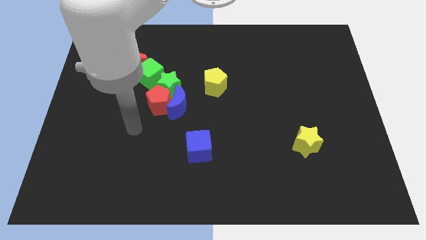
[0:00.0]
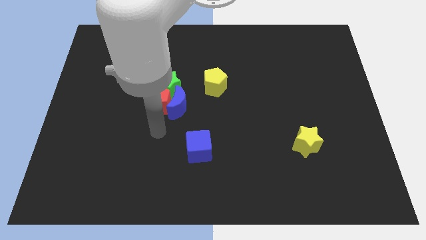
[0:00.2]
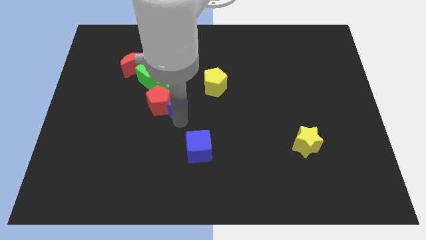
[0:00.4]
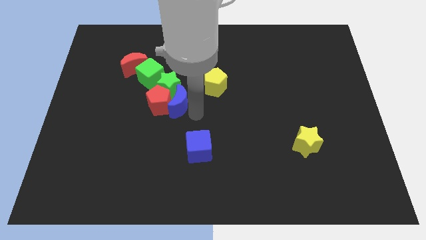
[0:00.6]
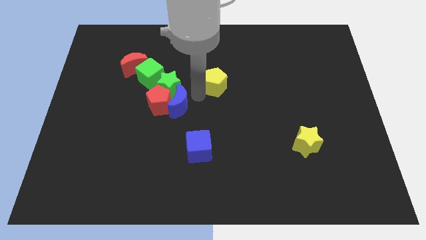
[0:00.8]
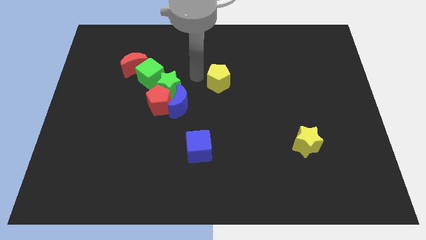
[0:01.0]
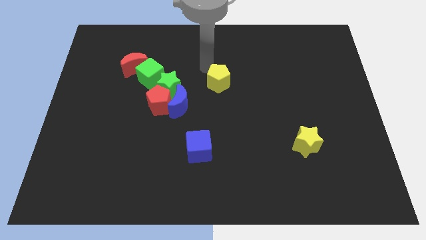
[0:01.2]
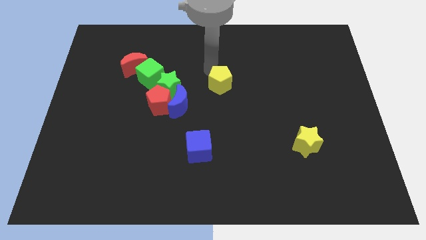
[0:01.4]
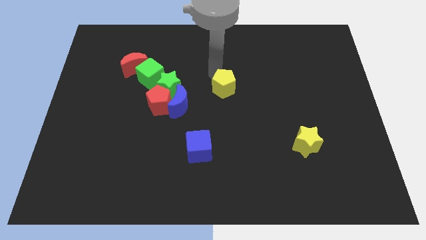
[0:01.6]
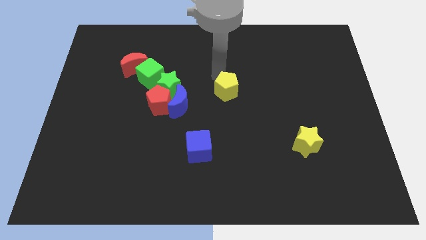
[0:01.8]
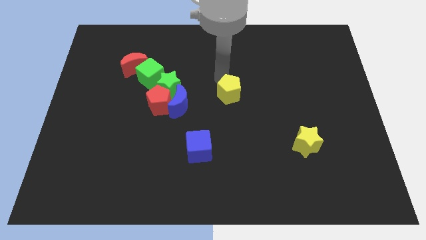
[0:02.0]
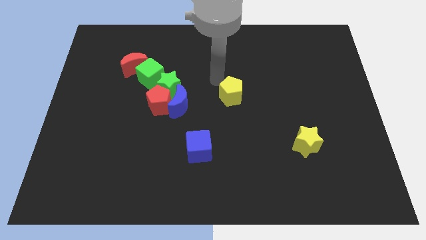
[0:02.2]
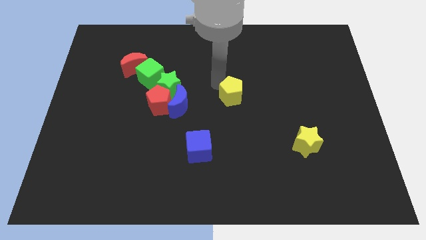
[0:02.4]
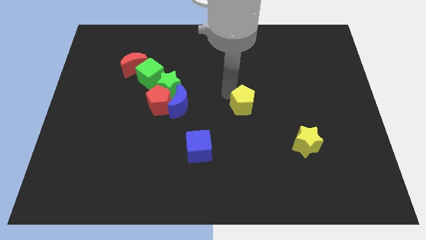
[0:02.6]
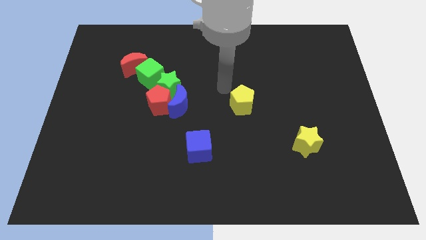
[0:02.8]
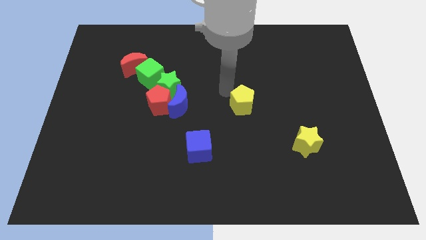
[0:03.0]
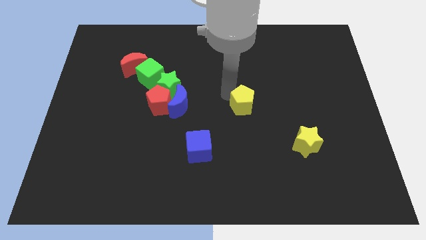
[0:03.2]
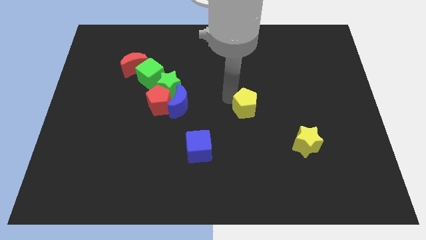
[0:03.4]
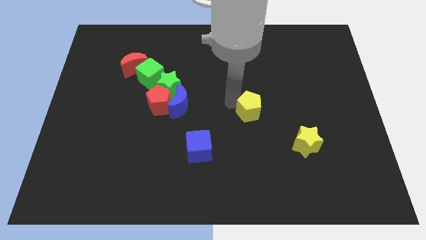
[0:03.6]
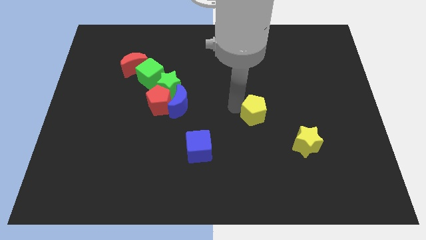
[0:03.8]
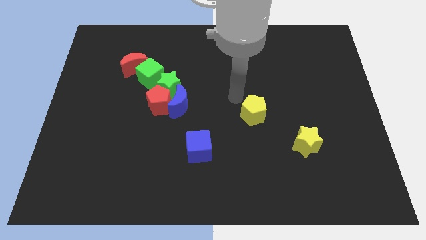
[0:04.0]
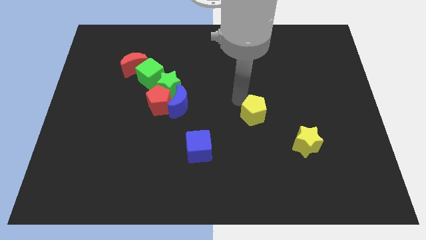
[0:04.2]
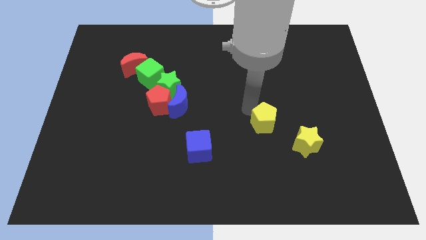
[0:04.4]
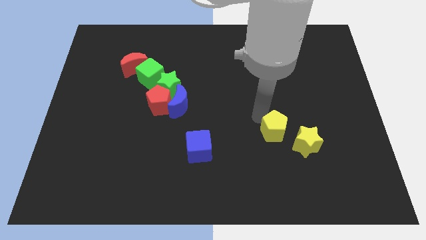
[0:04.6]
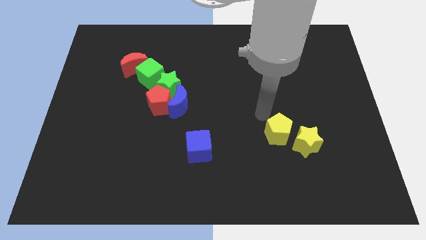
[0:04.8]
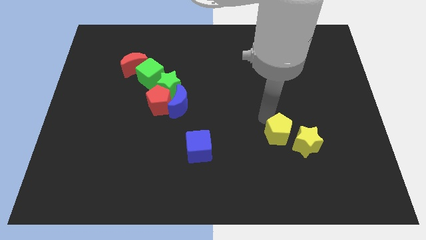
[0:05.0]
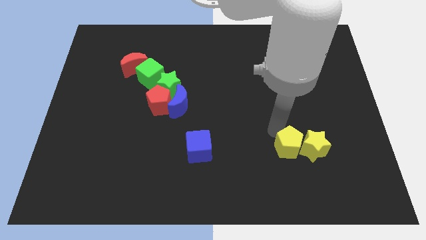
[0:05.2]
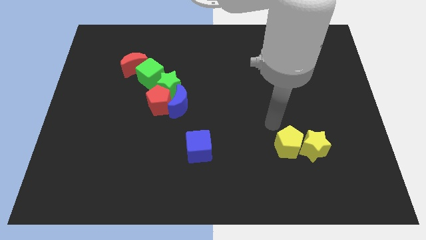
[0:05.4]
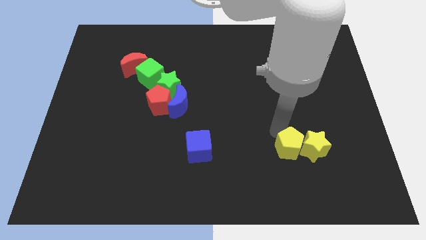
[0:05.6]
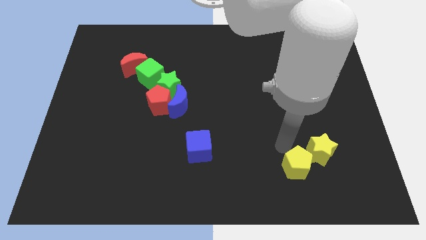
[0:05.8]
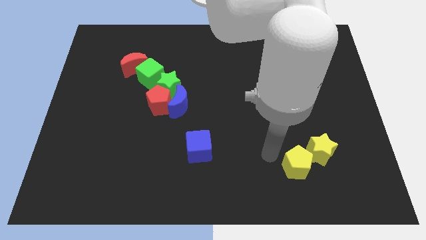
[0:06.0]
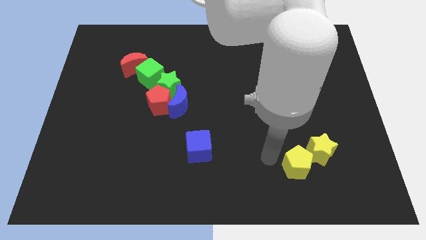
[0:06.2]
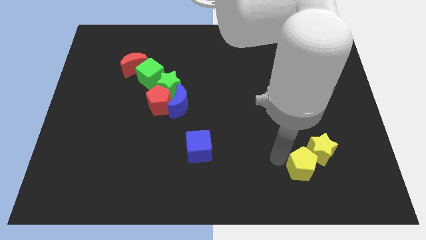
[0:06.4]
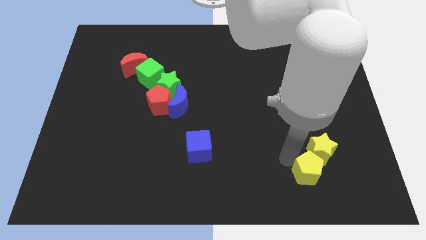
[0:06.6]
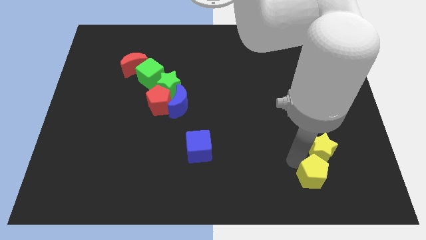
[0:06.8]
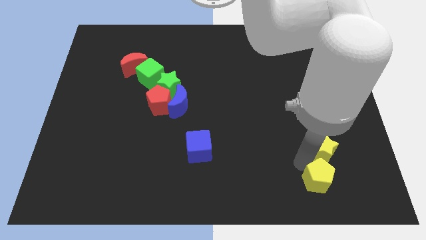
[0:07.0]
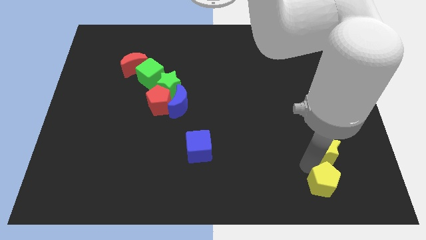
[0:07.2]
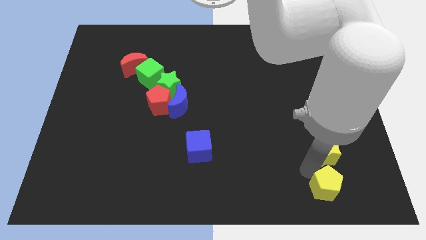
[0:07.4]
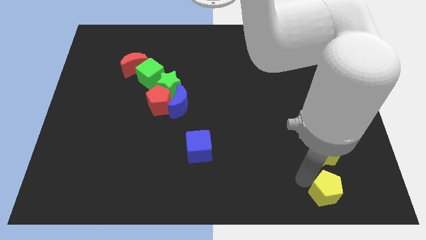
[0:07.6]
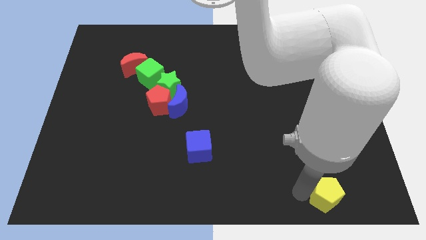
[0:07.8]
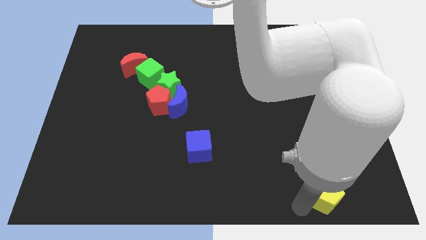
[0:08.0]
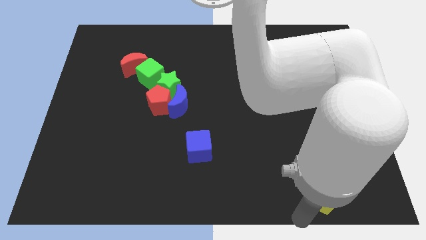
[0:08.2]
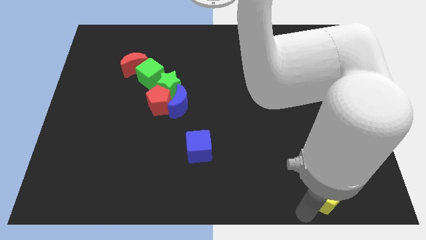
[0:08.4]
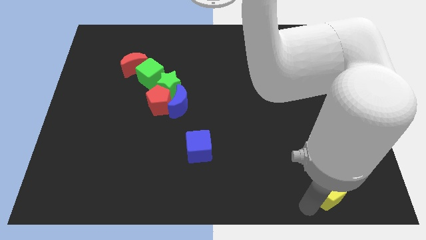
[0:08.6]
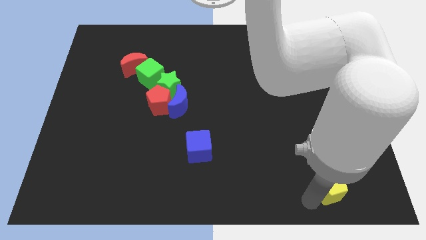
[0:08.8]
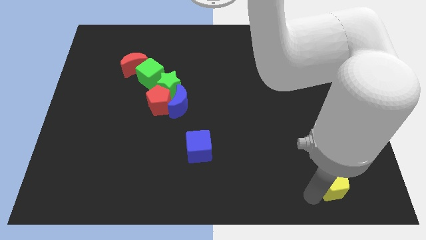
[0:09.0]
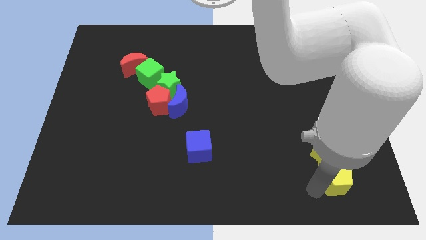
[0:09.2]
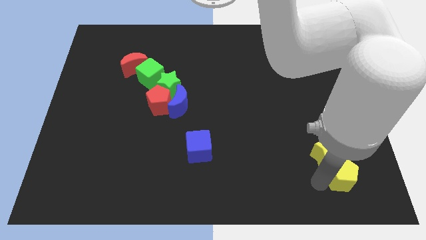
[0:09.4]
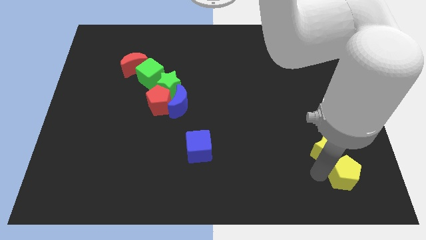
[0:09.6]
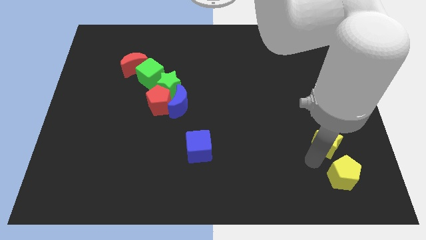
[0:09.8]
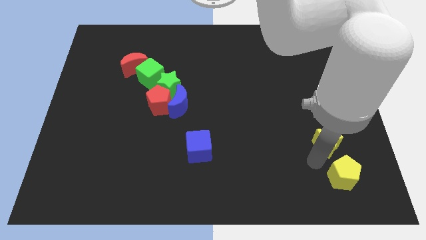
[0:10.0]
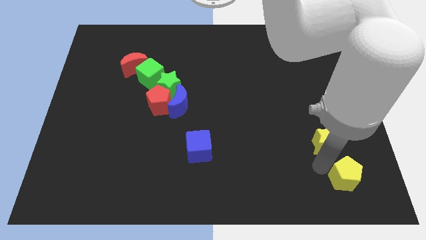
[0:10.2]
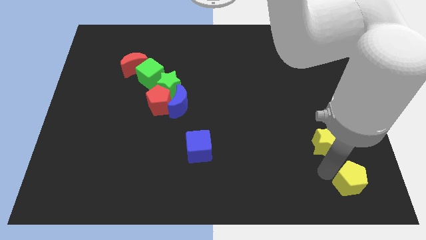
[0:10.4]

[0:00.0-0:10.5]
push the yellow pentagon to the lower right corner
